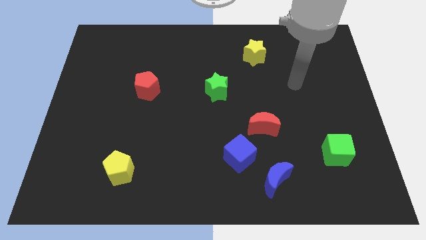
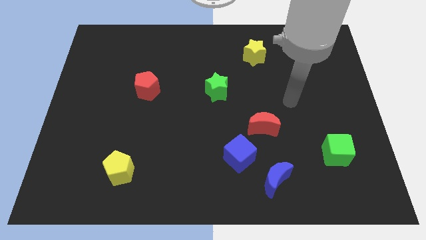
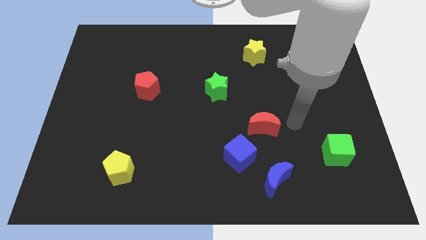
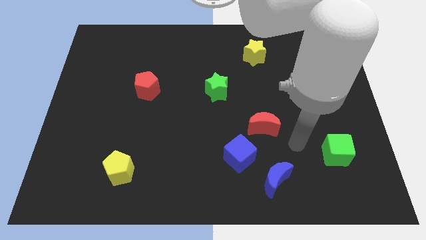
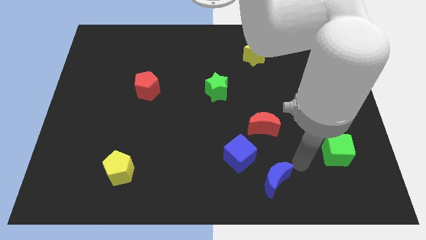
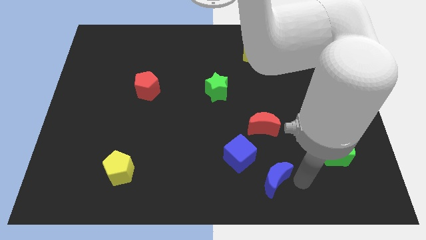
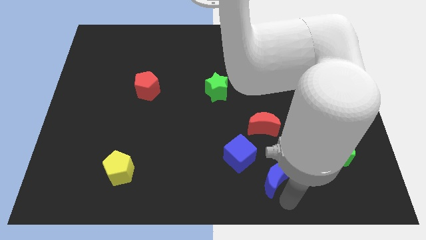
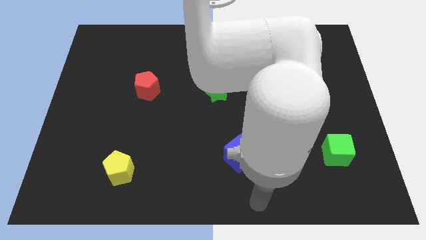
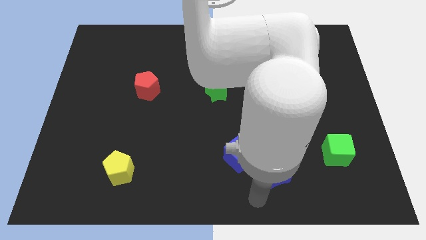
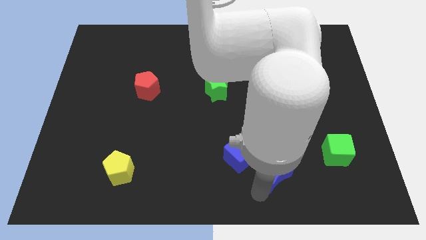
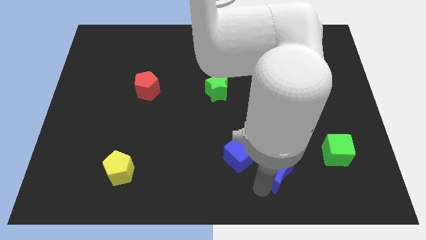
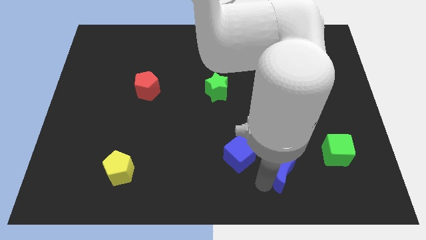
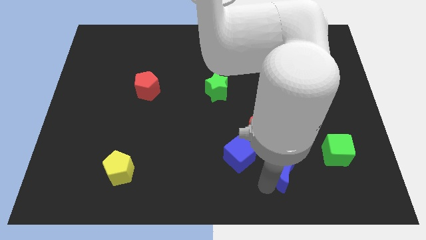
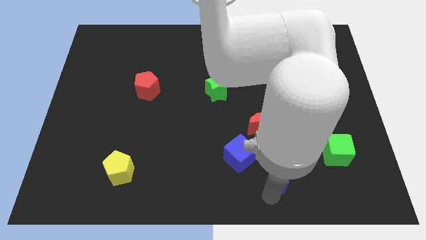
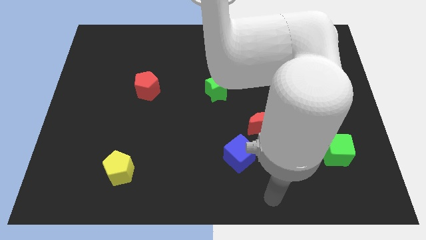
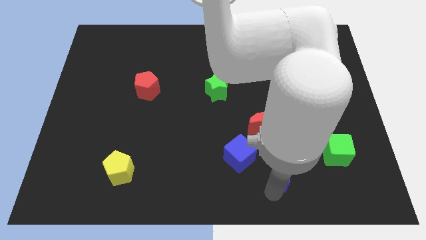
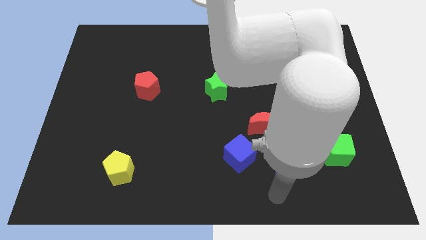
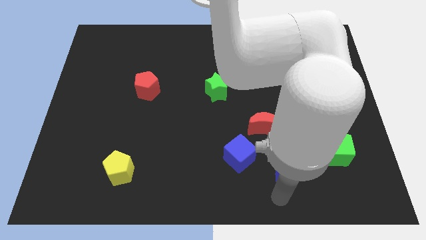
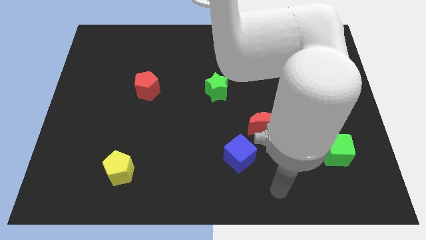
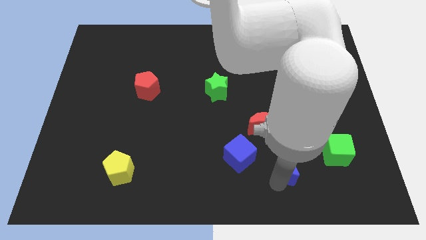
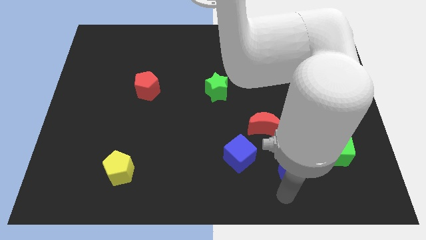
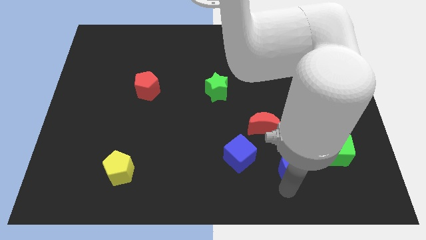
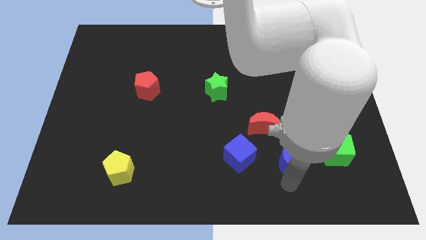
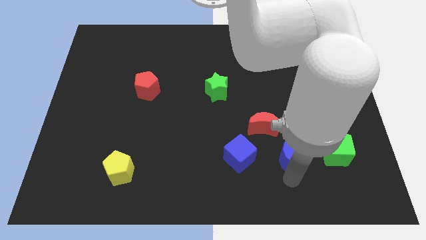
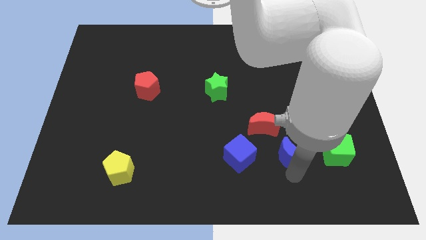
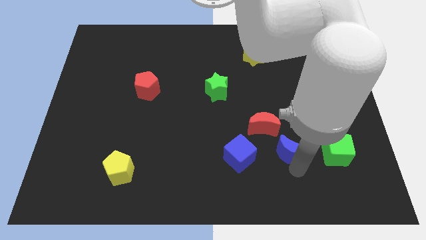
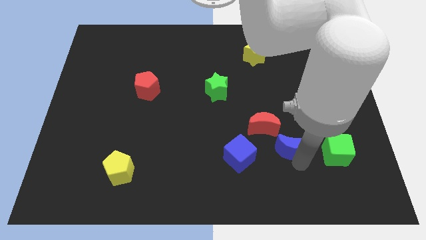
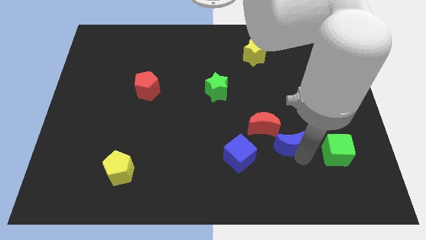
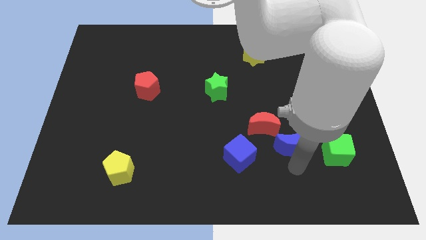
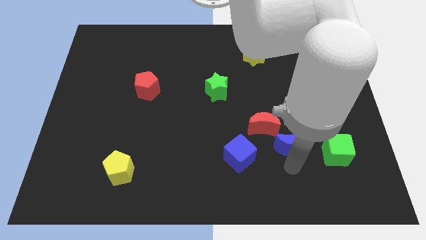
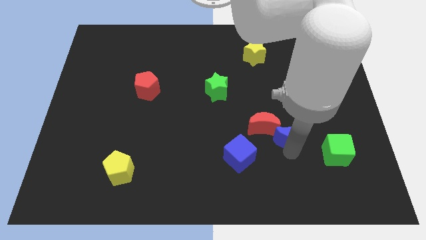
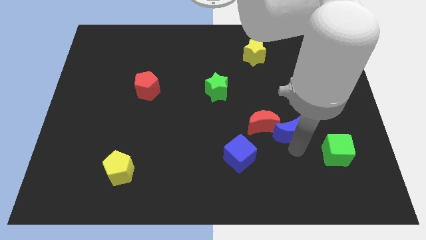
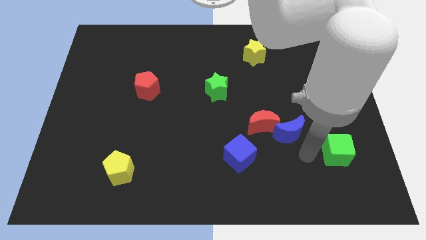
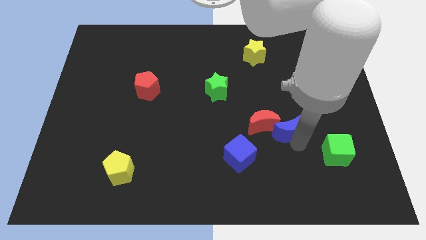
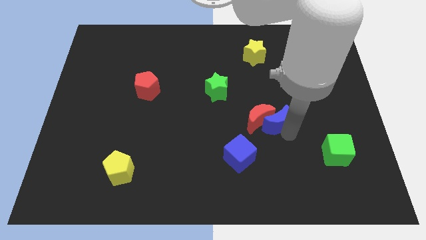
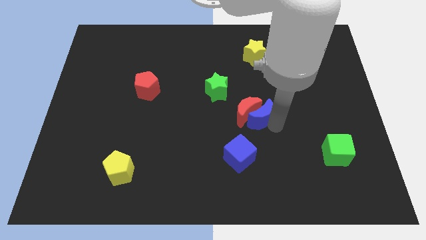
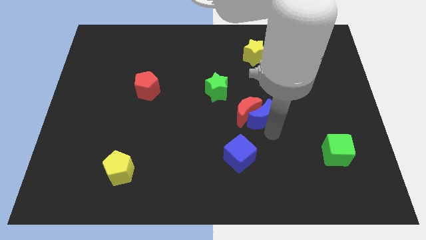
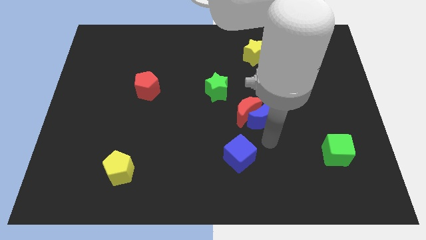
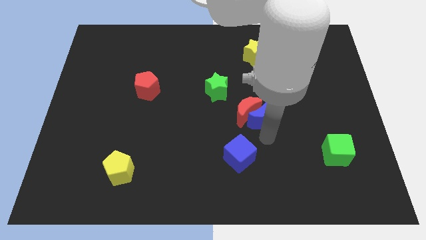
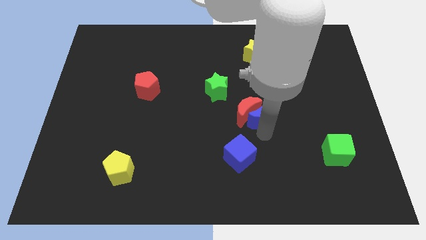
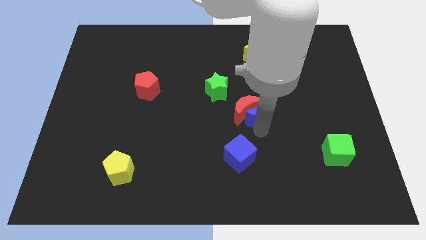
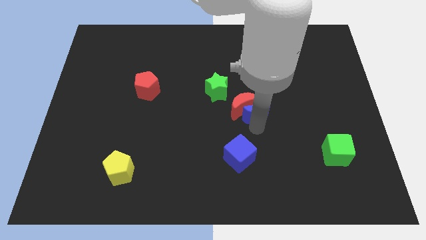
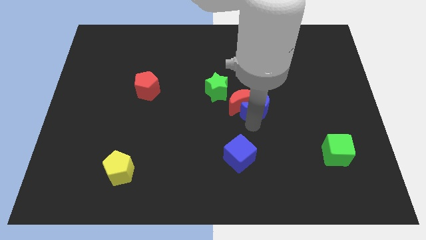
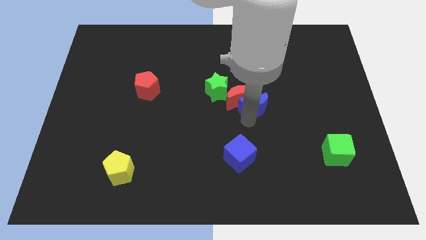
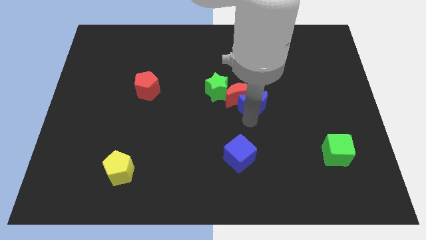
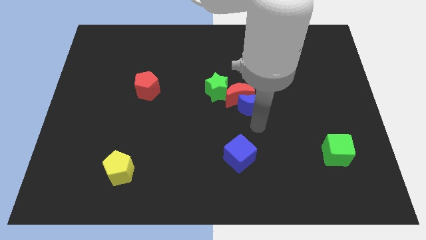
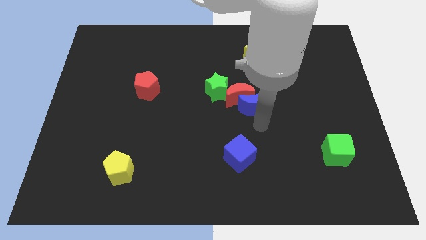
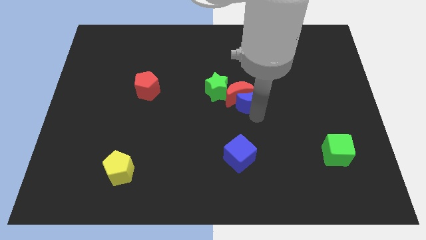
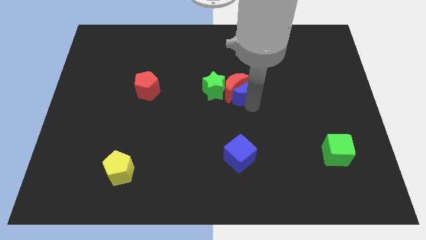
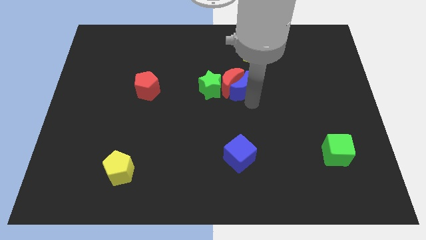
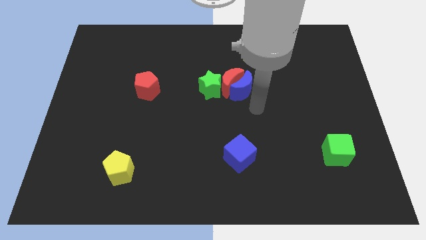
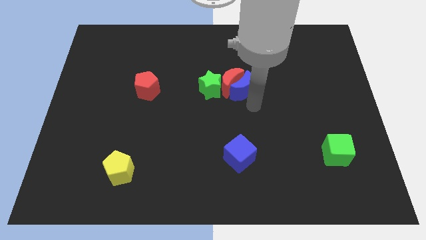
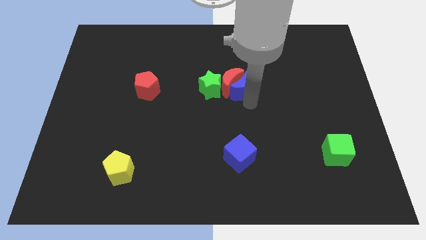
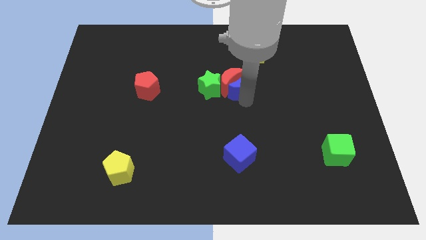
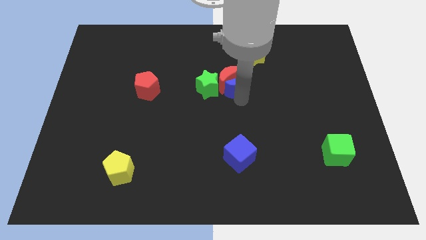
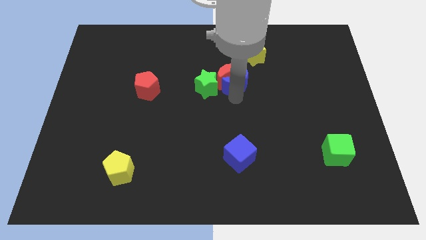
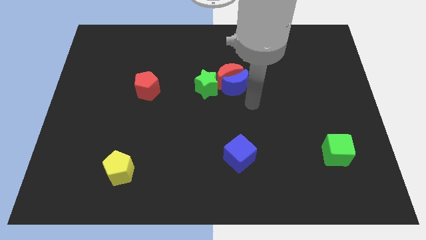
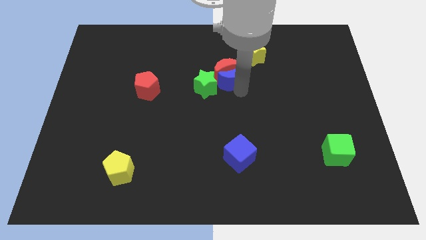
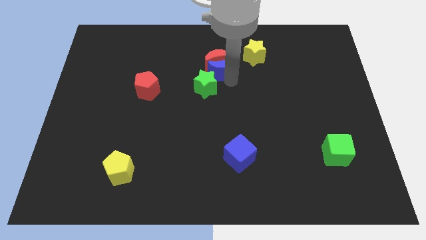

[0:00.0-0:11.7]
move the blue moon to the top side of the green star

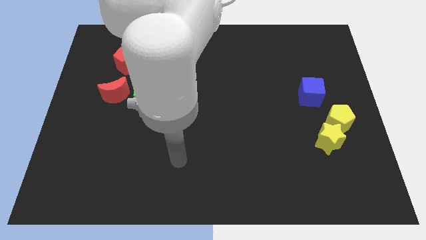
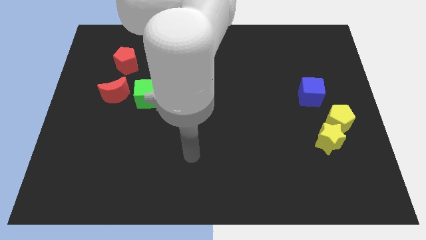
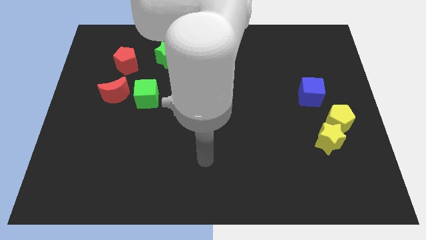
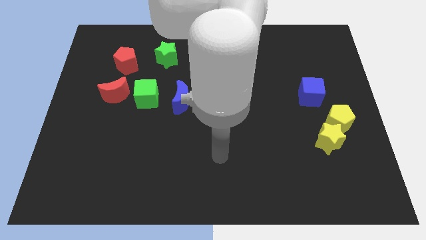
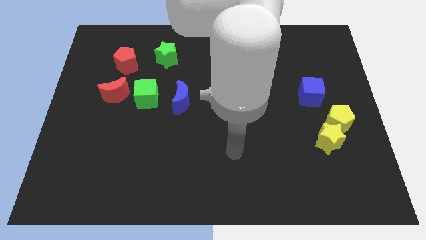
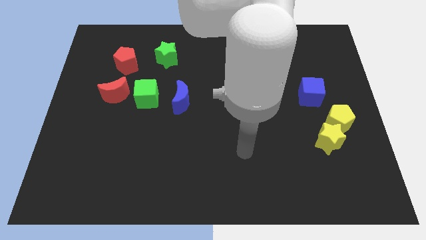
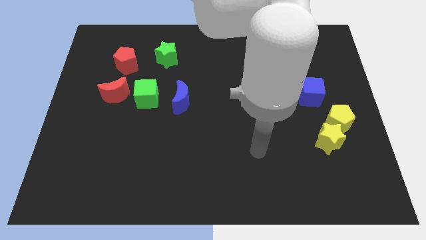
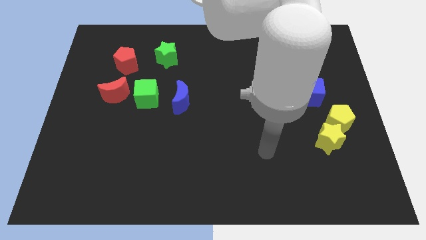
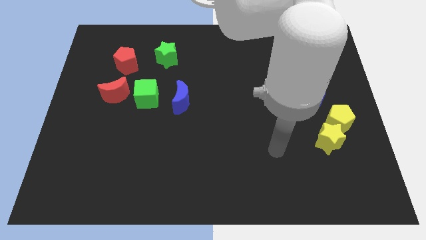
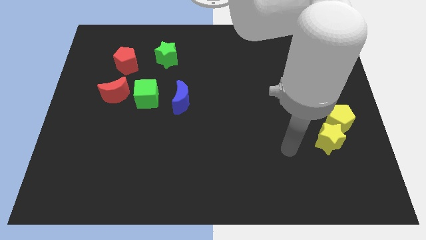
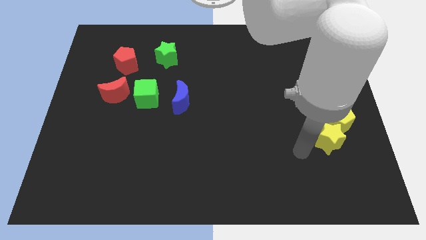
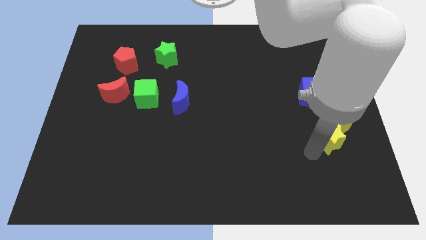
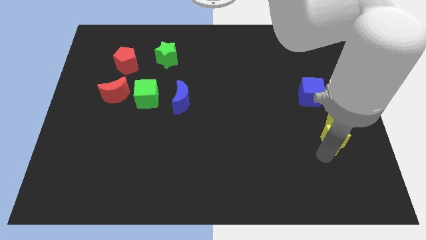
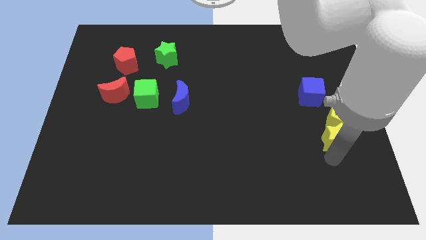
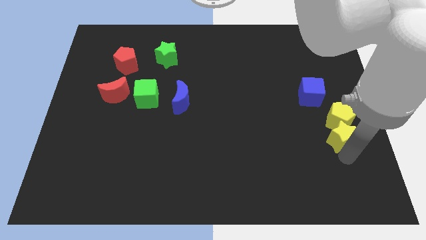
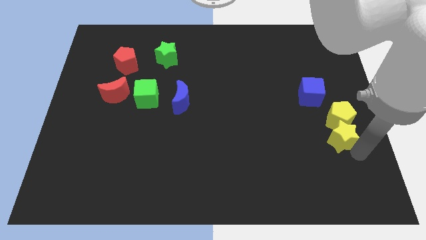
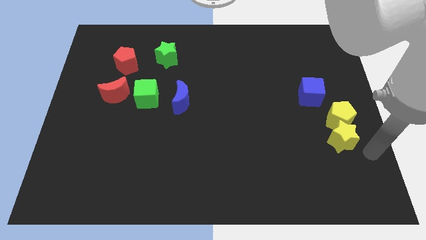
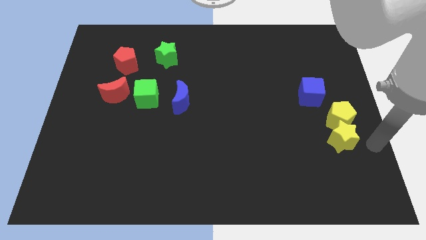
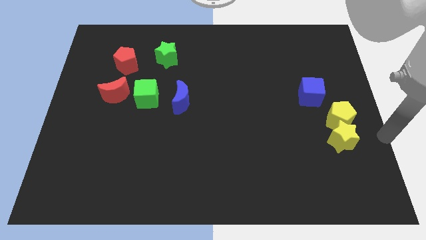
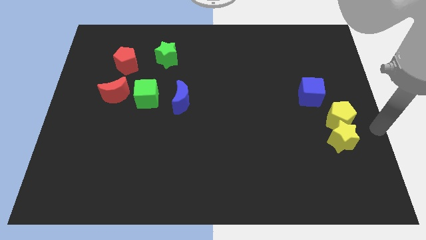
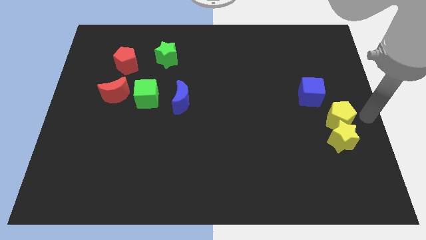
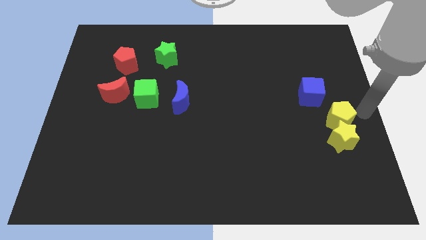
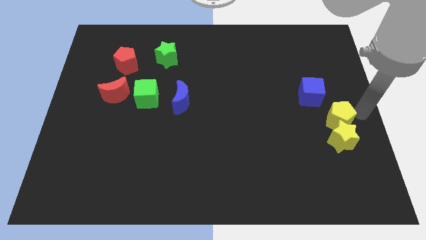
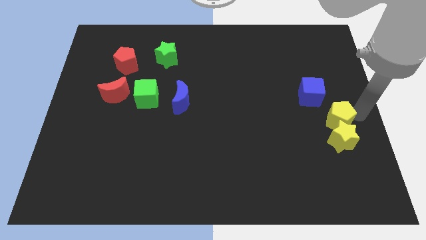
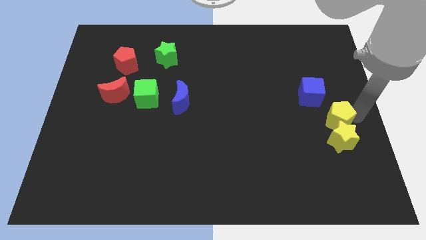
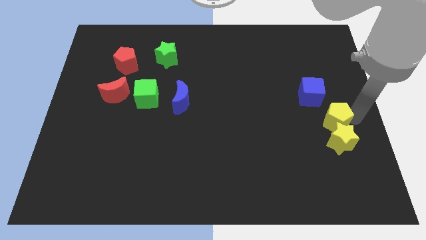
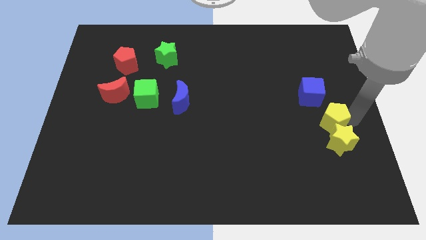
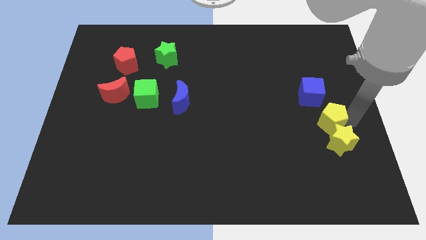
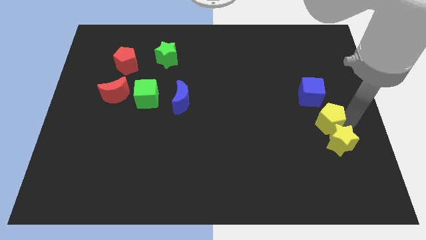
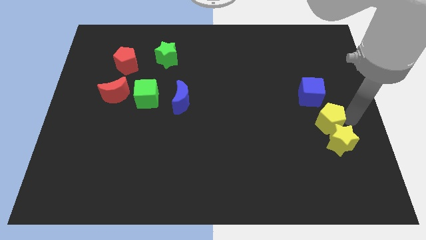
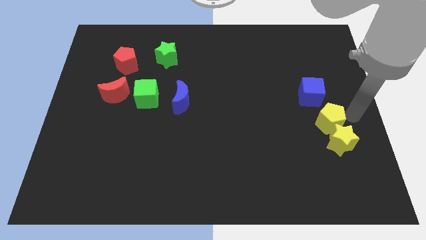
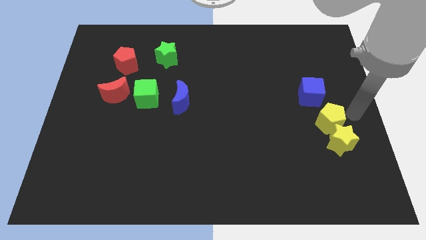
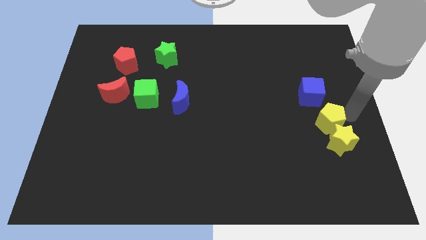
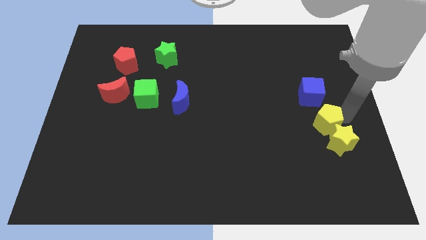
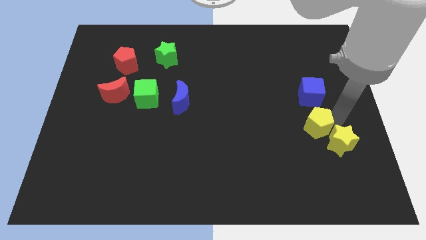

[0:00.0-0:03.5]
push the yellow pentagon left of the yellow star
